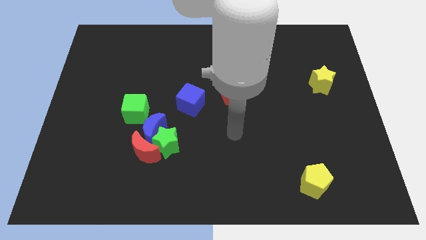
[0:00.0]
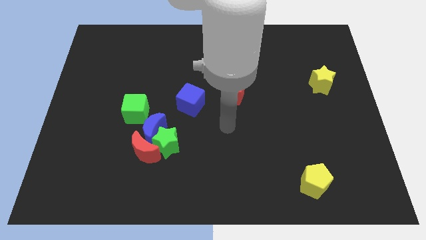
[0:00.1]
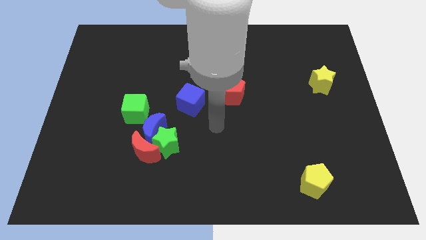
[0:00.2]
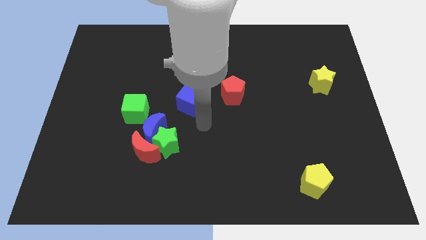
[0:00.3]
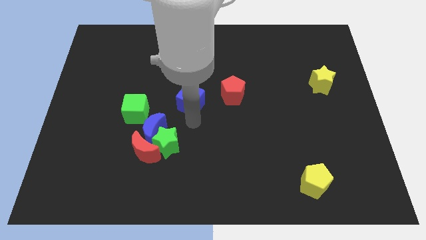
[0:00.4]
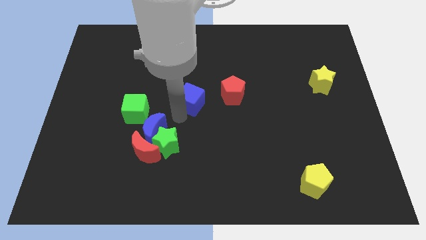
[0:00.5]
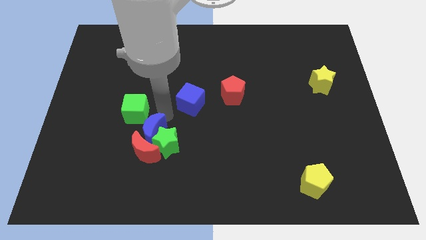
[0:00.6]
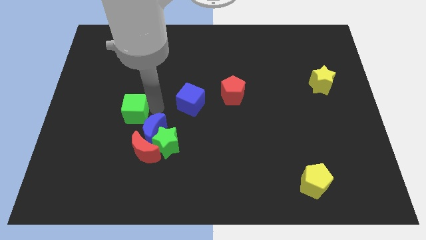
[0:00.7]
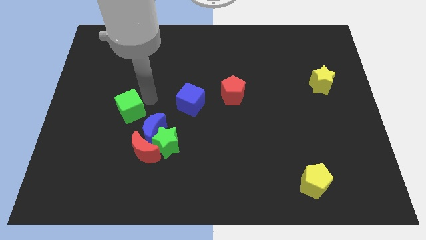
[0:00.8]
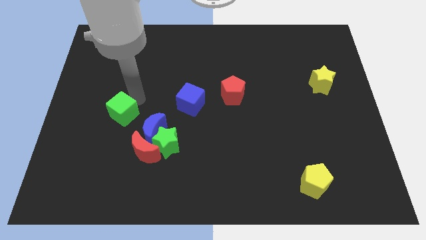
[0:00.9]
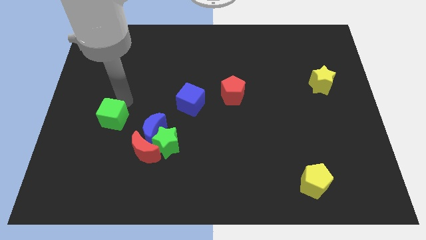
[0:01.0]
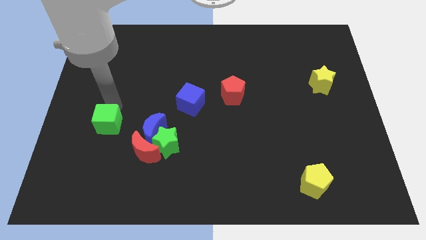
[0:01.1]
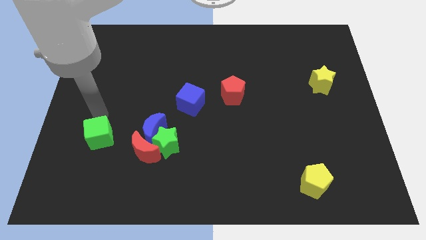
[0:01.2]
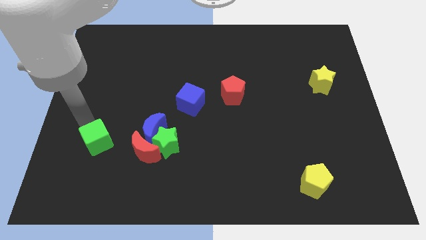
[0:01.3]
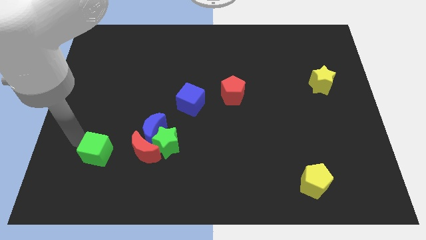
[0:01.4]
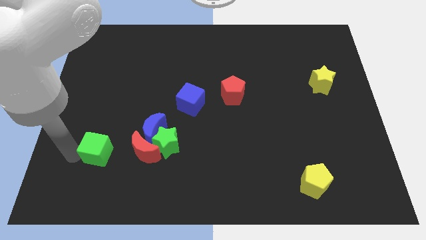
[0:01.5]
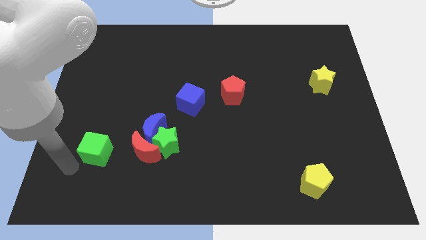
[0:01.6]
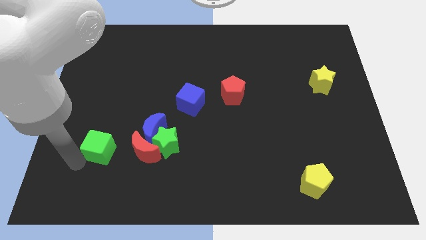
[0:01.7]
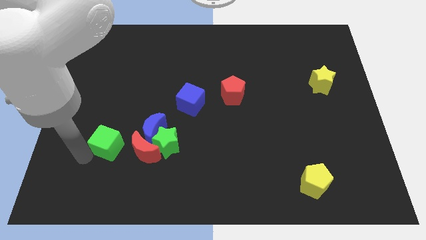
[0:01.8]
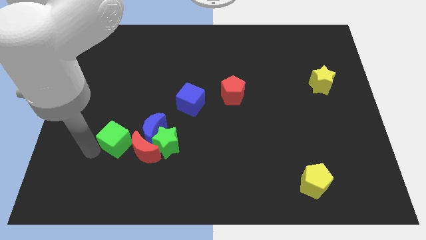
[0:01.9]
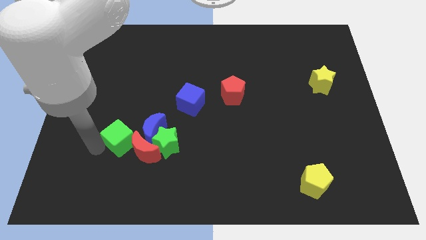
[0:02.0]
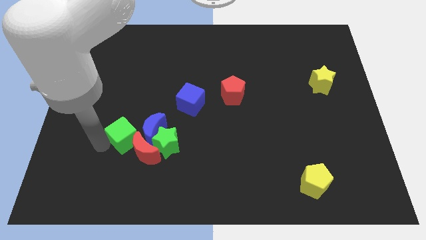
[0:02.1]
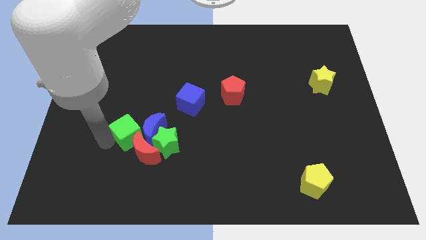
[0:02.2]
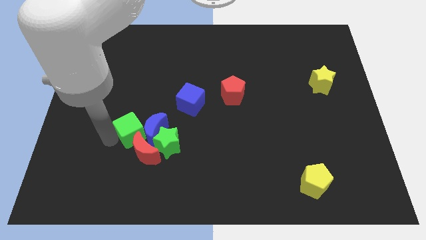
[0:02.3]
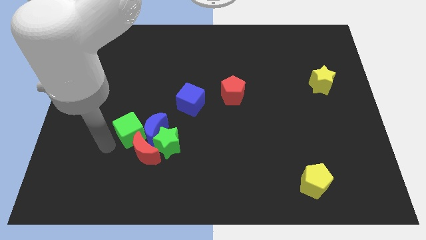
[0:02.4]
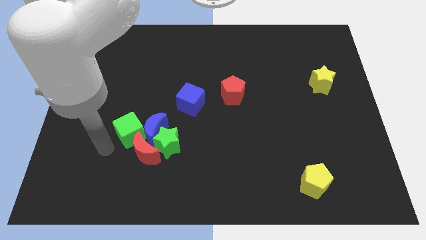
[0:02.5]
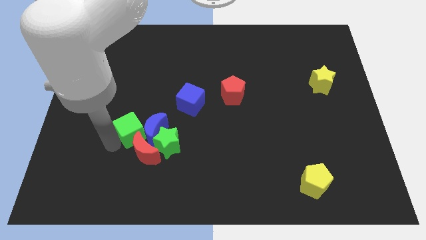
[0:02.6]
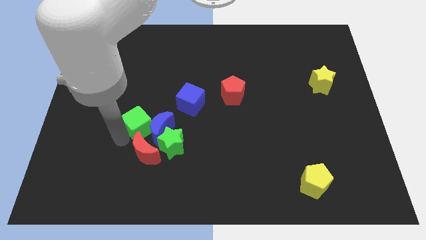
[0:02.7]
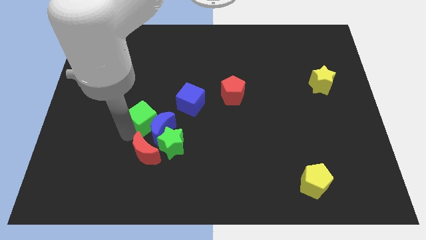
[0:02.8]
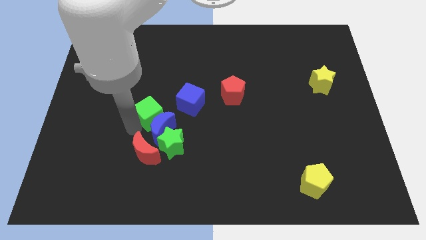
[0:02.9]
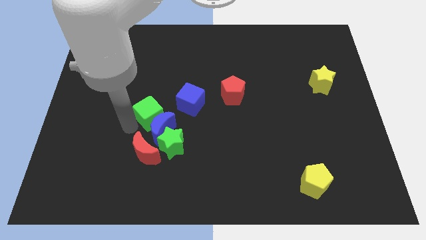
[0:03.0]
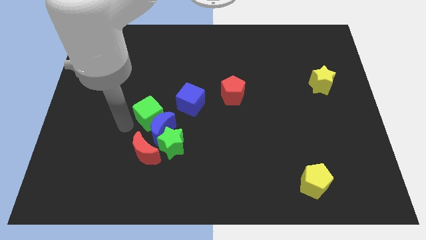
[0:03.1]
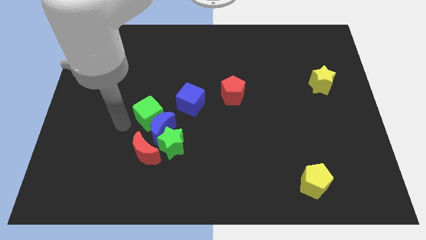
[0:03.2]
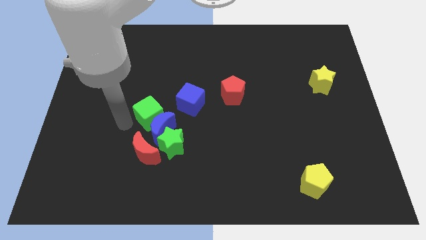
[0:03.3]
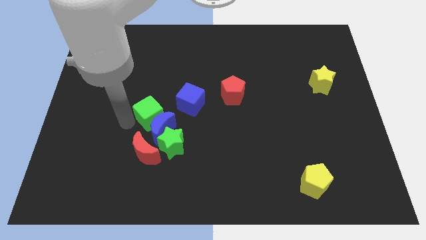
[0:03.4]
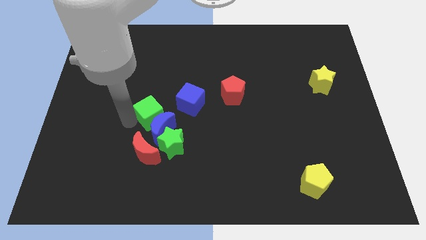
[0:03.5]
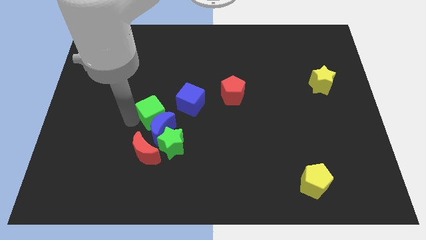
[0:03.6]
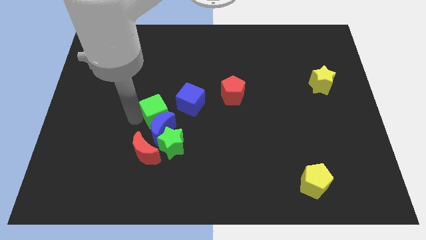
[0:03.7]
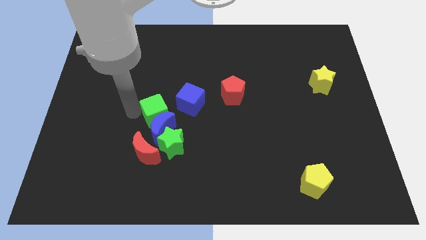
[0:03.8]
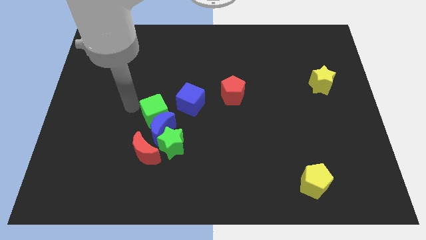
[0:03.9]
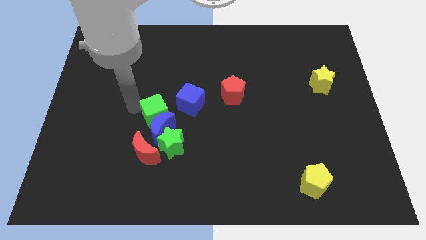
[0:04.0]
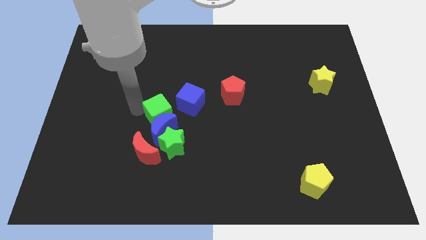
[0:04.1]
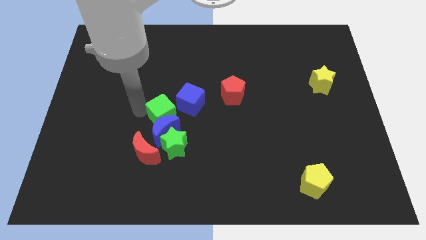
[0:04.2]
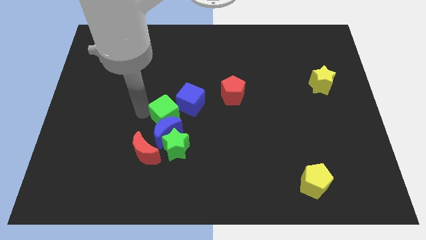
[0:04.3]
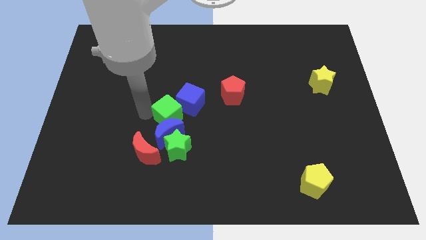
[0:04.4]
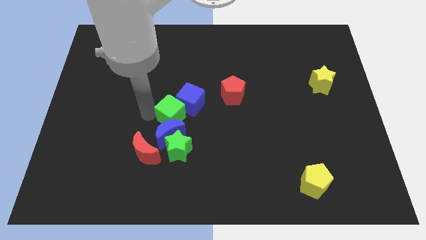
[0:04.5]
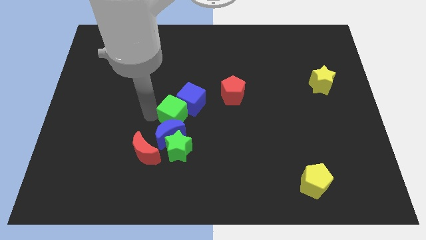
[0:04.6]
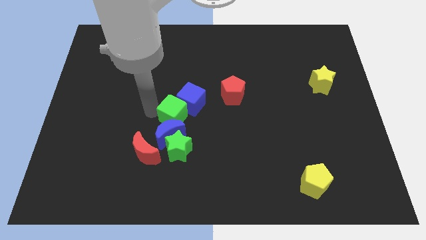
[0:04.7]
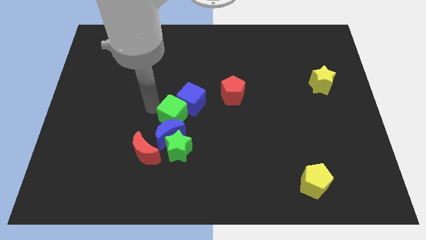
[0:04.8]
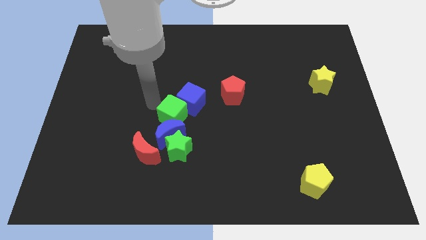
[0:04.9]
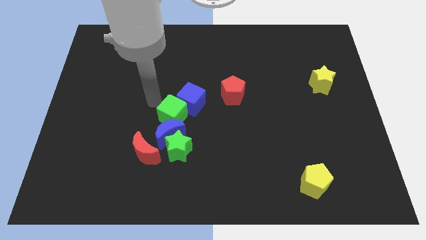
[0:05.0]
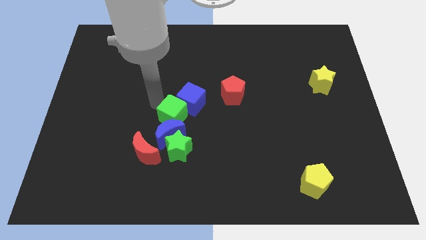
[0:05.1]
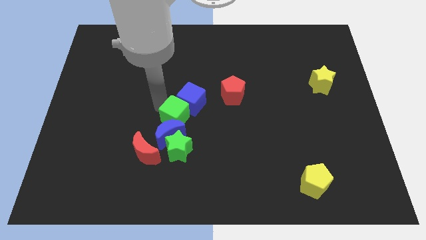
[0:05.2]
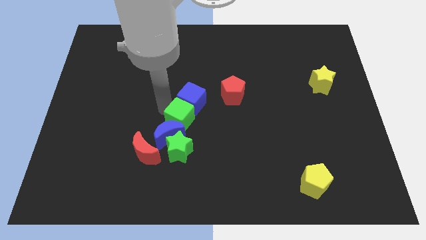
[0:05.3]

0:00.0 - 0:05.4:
slide the green cube downwards and right diagonally a bit

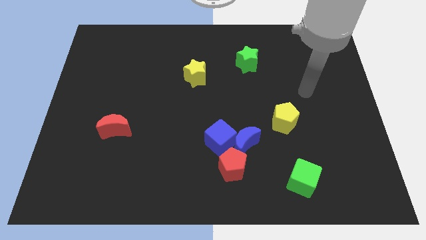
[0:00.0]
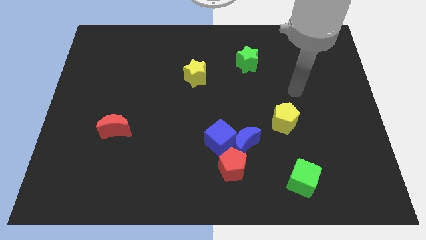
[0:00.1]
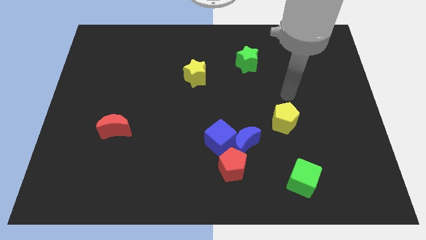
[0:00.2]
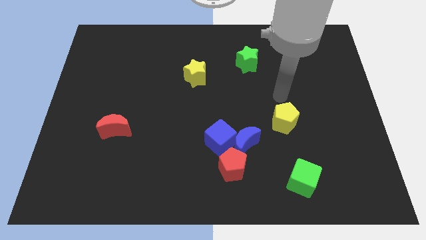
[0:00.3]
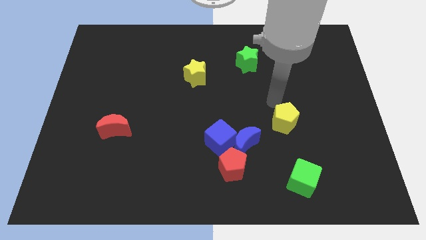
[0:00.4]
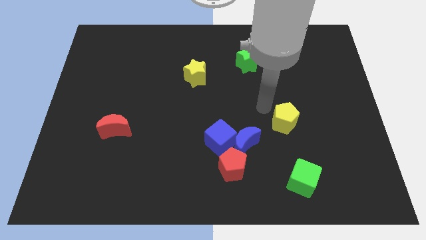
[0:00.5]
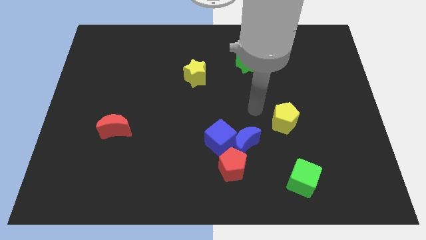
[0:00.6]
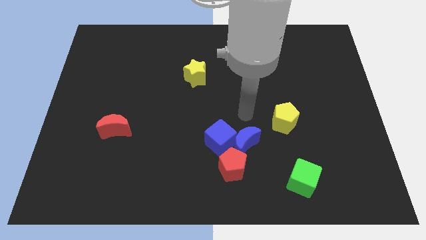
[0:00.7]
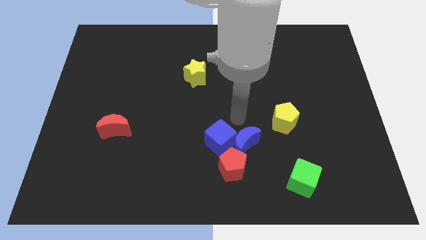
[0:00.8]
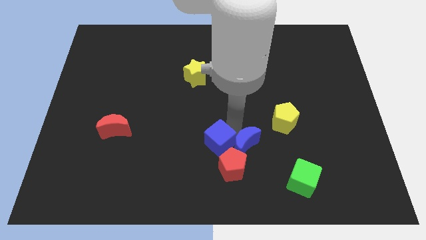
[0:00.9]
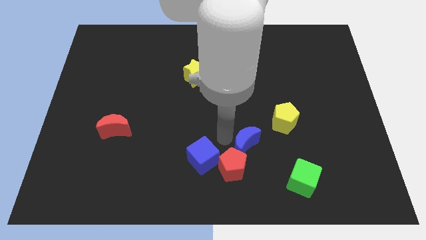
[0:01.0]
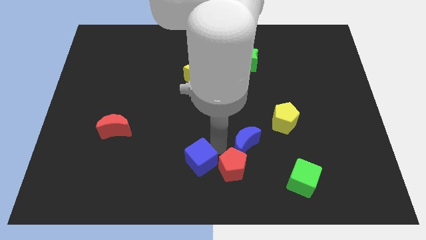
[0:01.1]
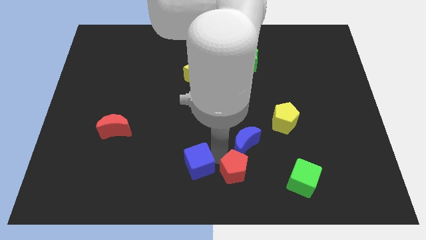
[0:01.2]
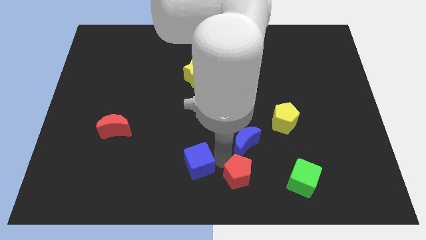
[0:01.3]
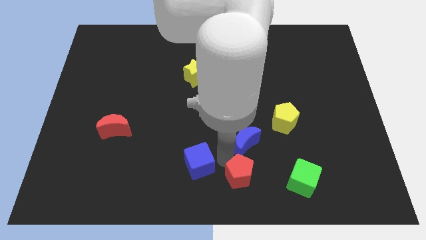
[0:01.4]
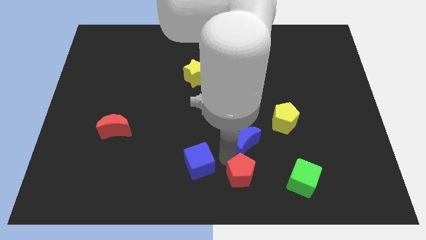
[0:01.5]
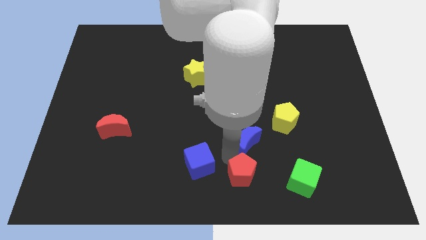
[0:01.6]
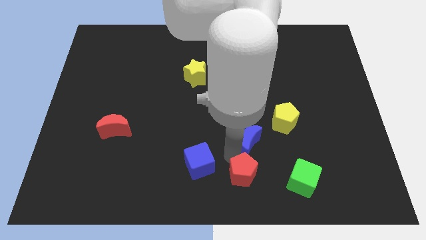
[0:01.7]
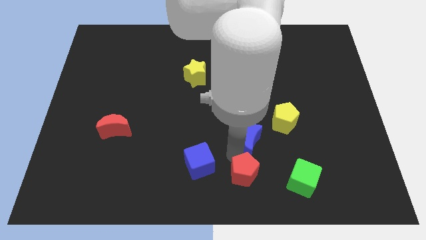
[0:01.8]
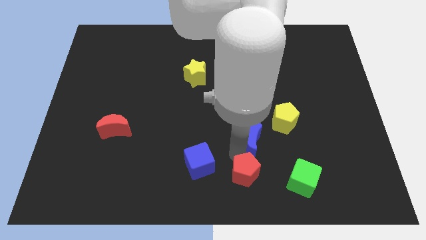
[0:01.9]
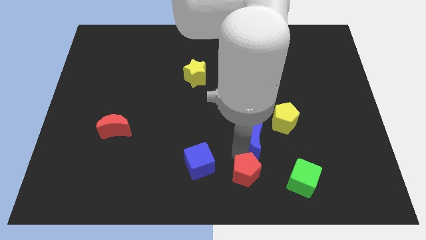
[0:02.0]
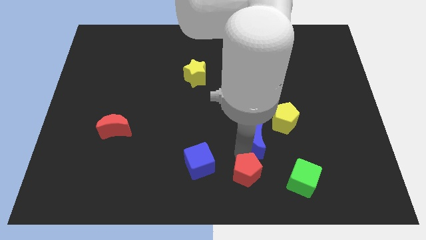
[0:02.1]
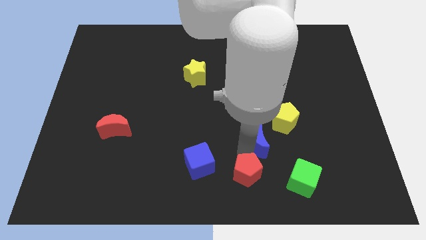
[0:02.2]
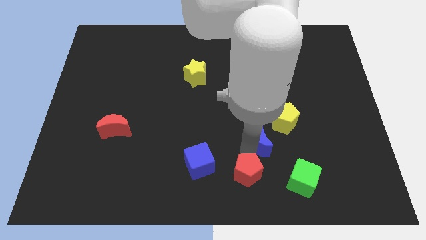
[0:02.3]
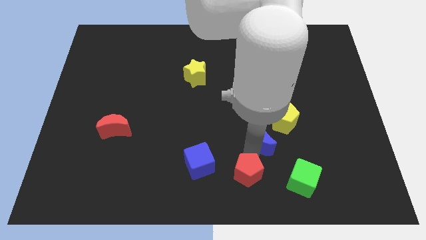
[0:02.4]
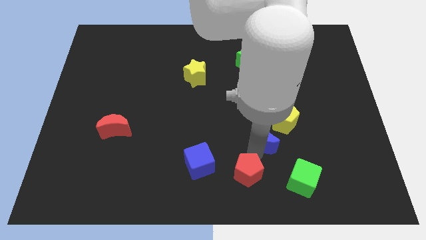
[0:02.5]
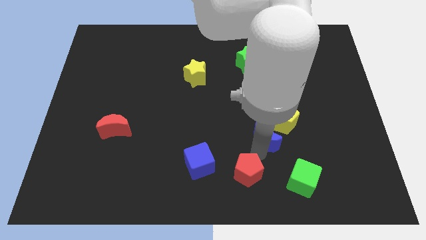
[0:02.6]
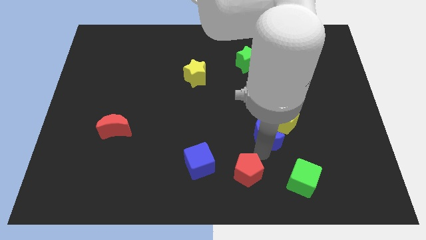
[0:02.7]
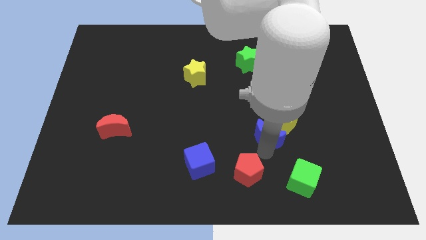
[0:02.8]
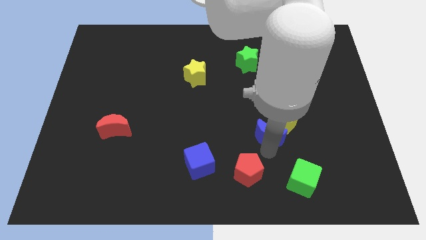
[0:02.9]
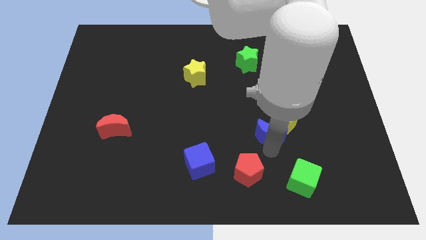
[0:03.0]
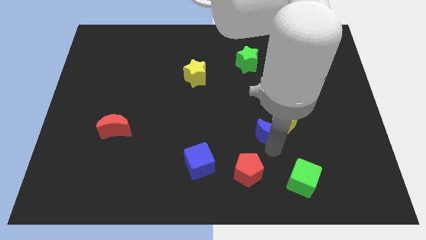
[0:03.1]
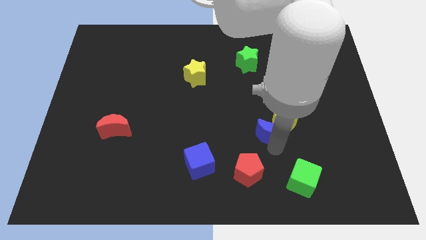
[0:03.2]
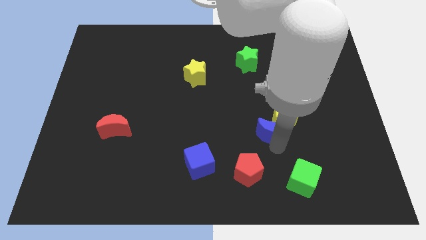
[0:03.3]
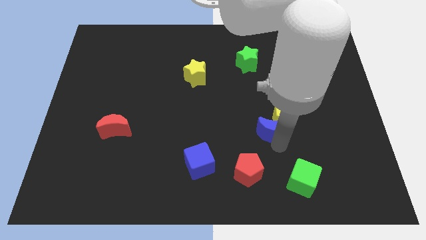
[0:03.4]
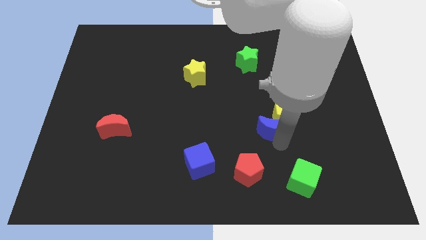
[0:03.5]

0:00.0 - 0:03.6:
slightly move the blue moon up and to the right
